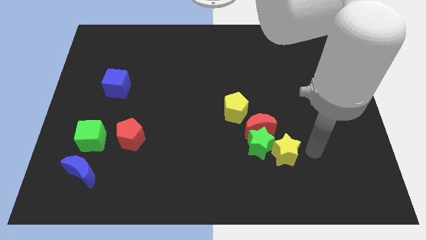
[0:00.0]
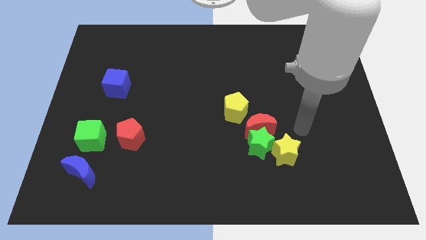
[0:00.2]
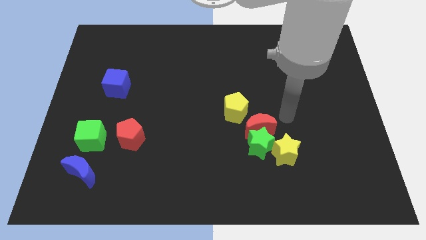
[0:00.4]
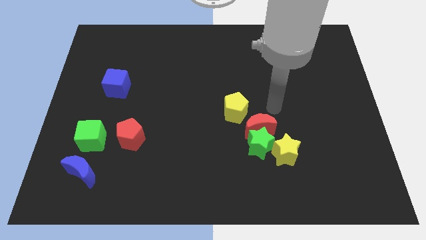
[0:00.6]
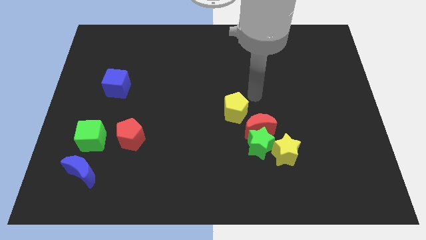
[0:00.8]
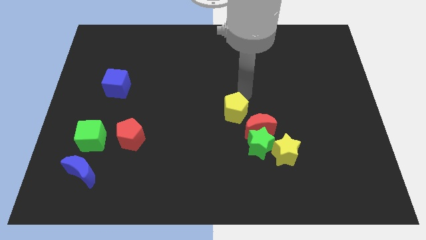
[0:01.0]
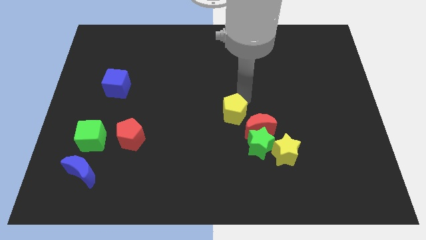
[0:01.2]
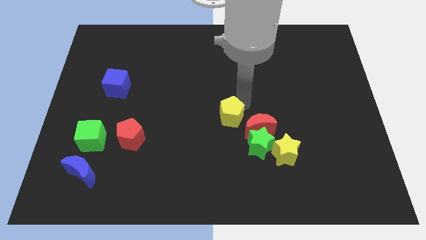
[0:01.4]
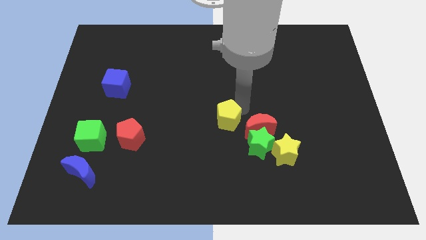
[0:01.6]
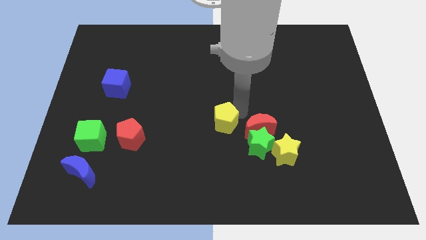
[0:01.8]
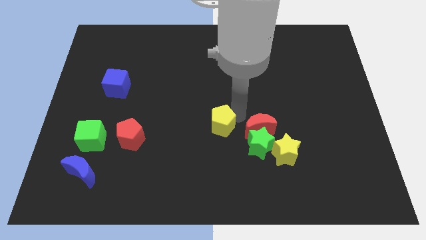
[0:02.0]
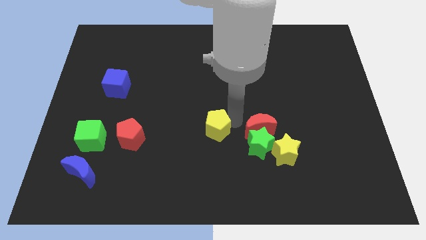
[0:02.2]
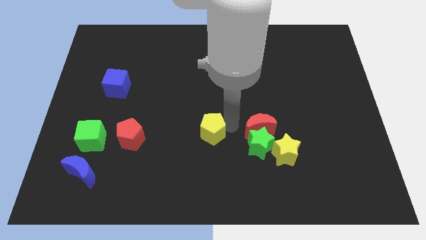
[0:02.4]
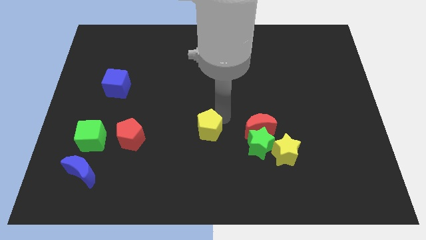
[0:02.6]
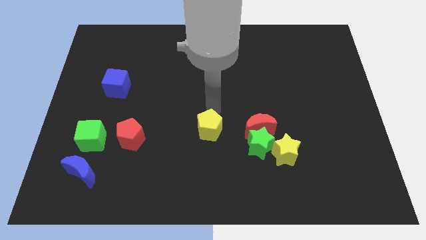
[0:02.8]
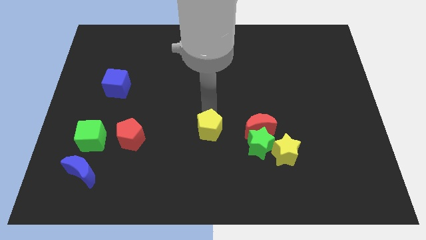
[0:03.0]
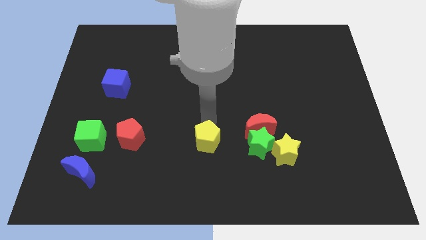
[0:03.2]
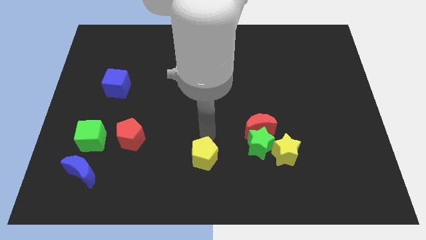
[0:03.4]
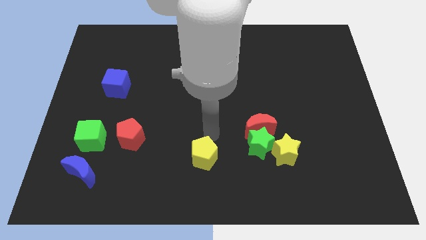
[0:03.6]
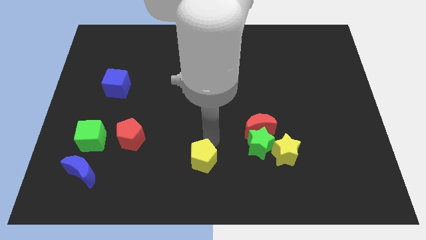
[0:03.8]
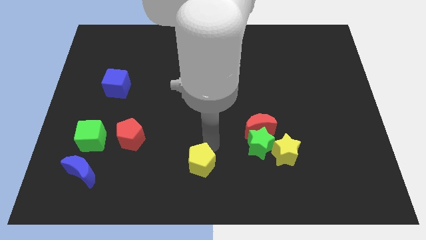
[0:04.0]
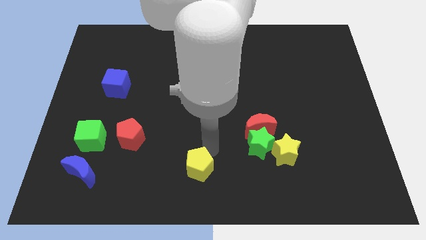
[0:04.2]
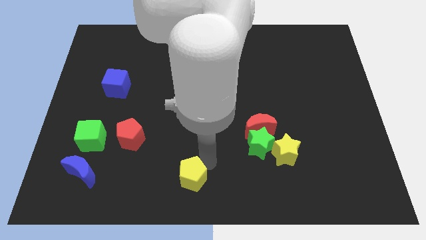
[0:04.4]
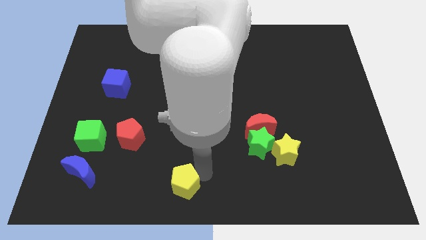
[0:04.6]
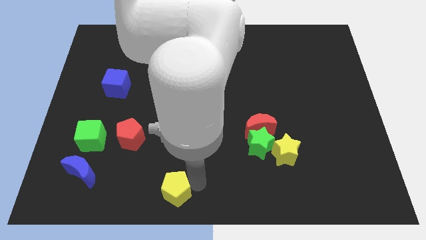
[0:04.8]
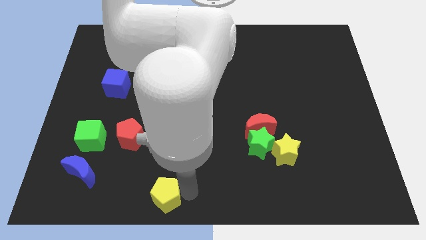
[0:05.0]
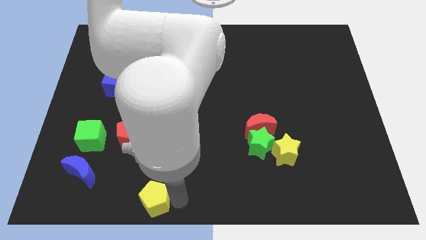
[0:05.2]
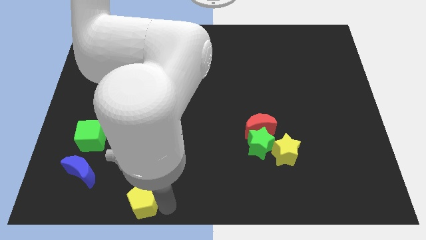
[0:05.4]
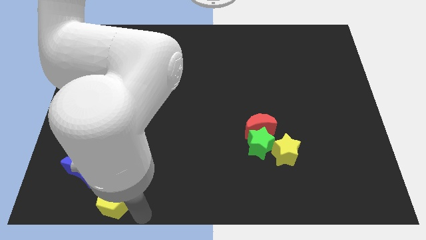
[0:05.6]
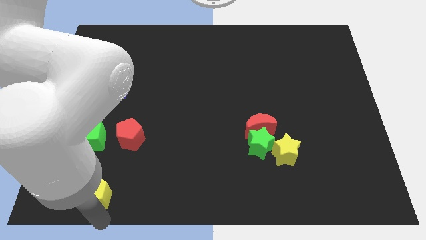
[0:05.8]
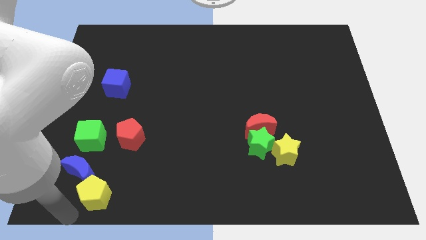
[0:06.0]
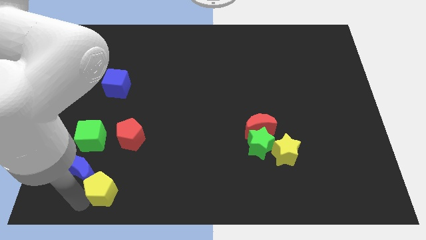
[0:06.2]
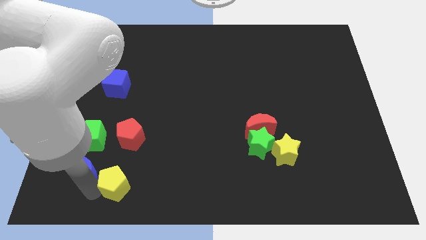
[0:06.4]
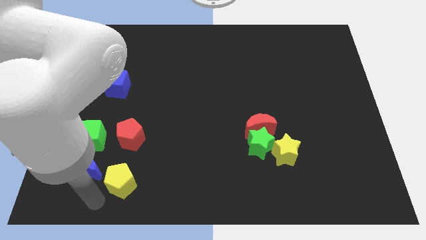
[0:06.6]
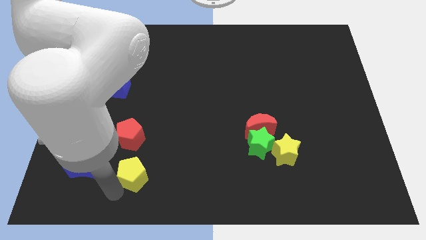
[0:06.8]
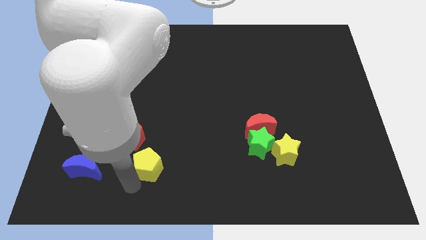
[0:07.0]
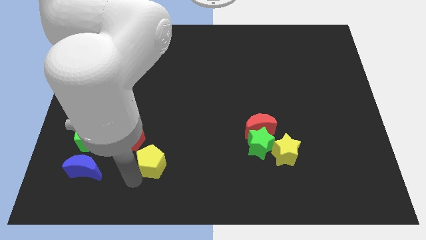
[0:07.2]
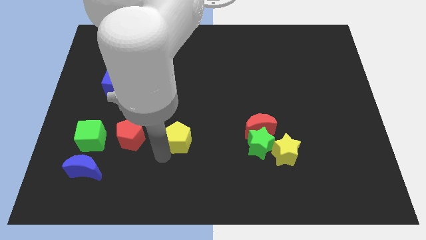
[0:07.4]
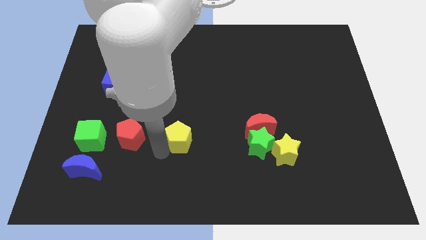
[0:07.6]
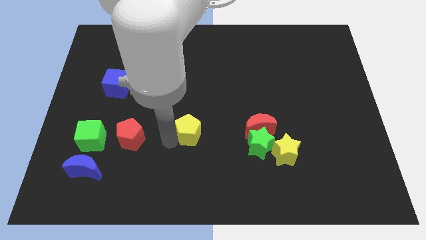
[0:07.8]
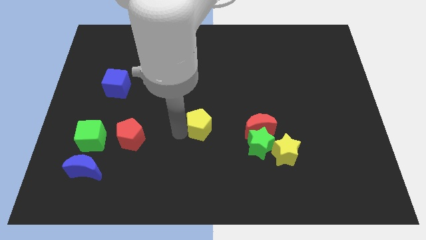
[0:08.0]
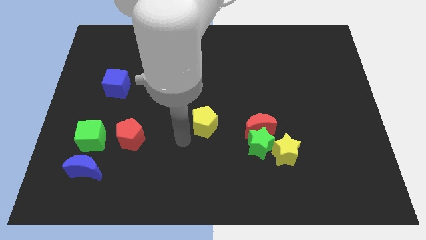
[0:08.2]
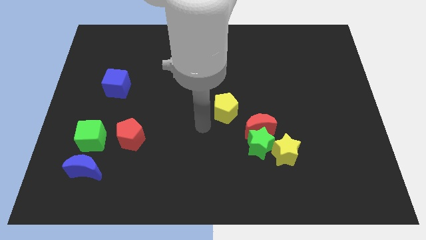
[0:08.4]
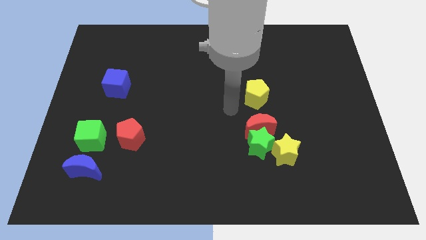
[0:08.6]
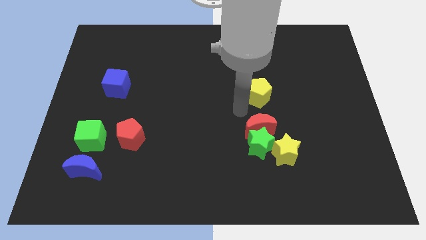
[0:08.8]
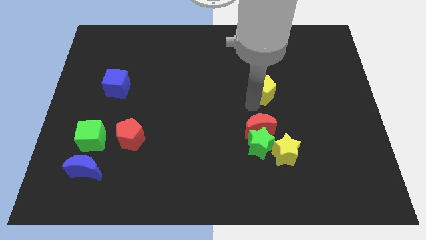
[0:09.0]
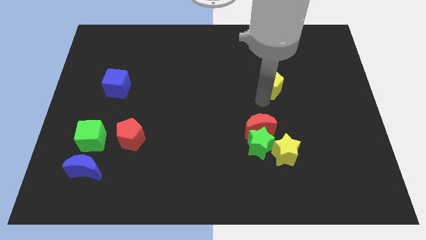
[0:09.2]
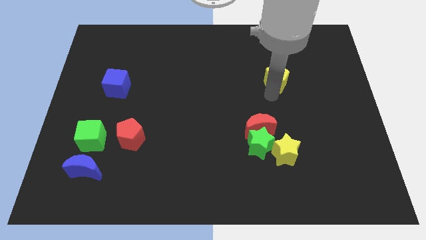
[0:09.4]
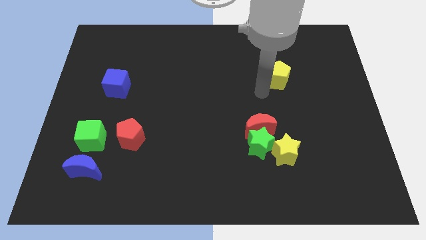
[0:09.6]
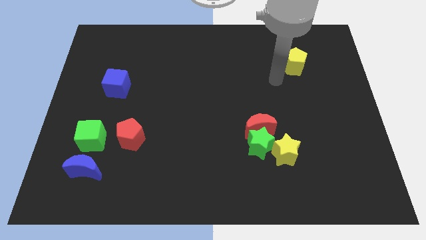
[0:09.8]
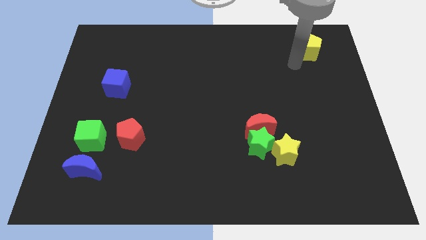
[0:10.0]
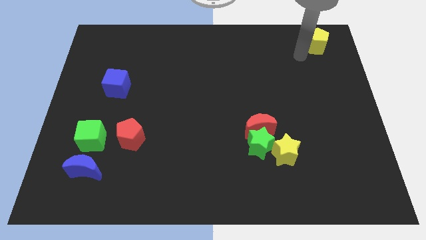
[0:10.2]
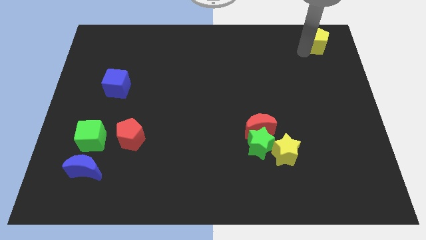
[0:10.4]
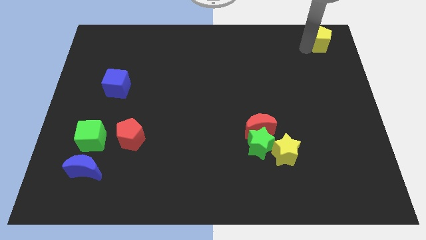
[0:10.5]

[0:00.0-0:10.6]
put the yellow pentagon to the top right of the board

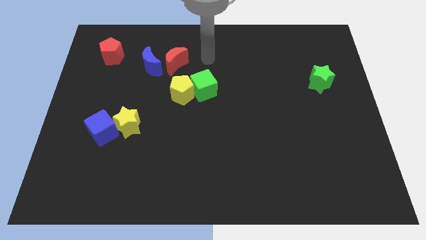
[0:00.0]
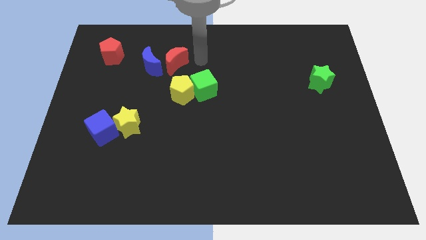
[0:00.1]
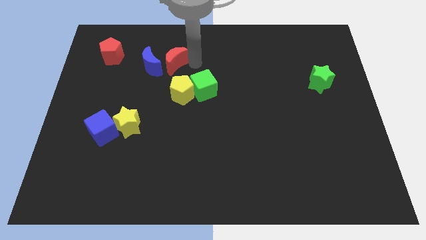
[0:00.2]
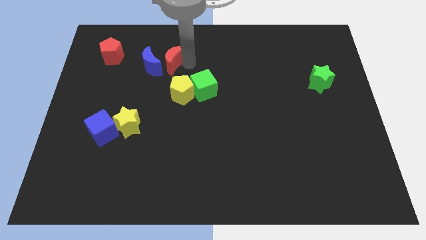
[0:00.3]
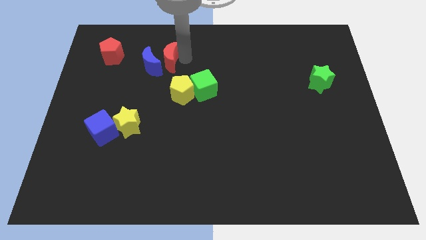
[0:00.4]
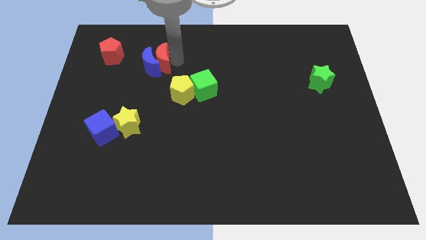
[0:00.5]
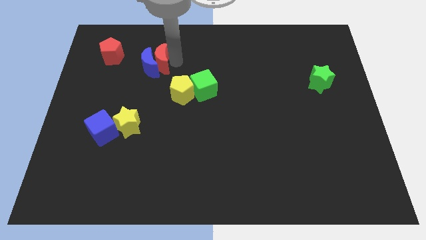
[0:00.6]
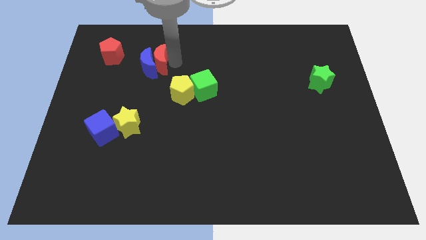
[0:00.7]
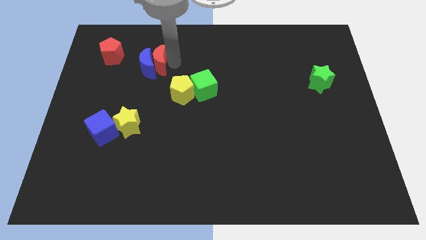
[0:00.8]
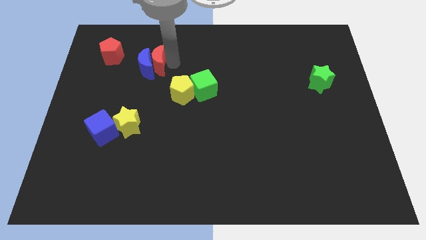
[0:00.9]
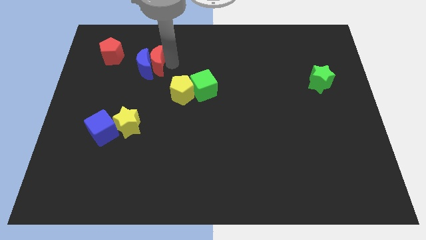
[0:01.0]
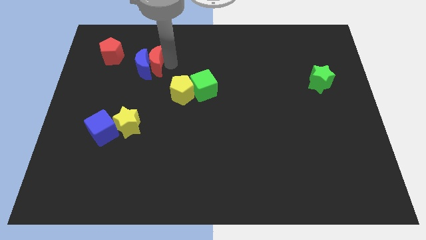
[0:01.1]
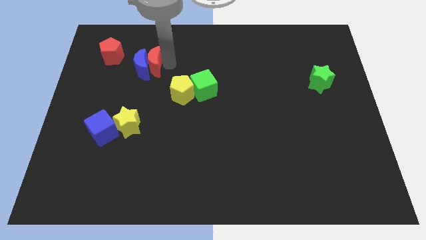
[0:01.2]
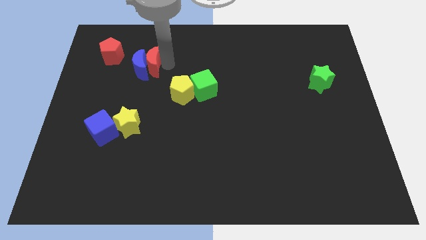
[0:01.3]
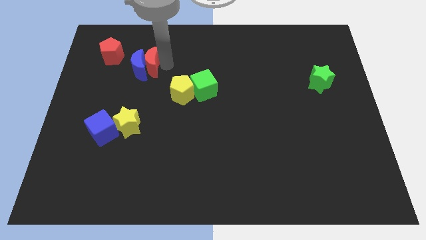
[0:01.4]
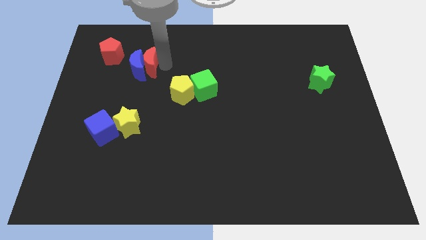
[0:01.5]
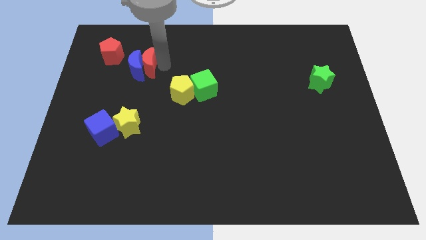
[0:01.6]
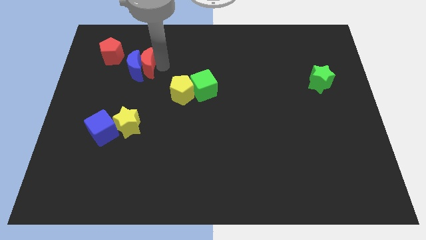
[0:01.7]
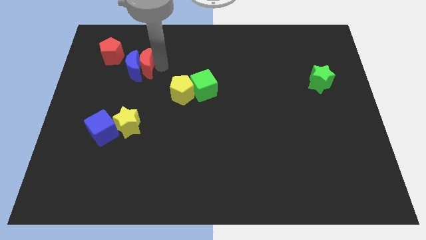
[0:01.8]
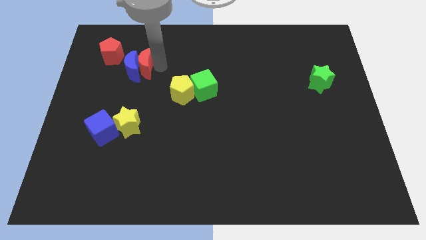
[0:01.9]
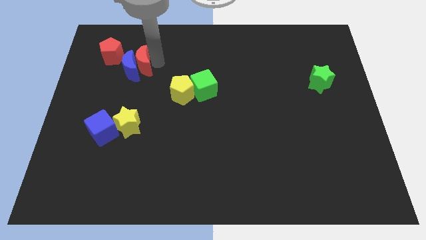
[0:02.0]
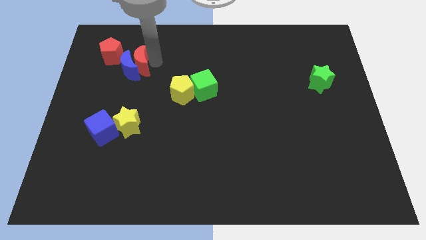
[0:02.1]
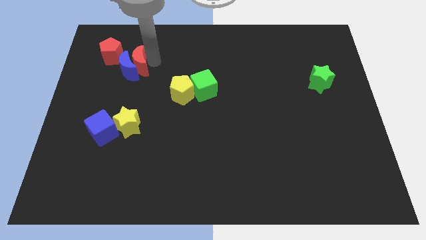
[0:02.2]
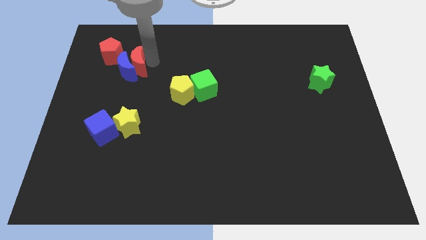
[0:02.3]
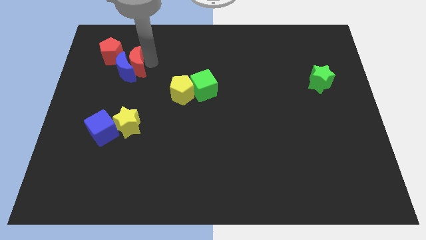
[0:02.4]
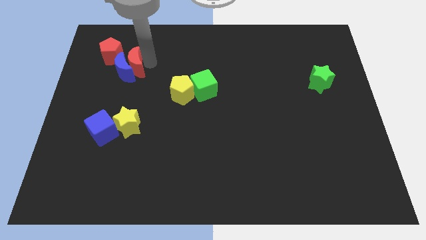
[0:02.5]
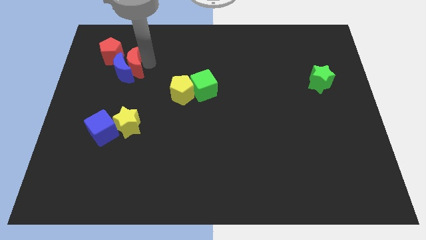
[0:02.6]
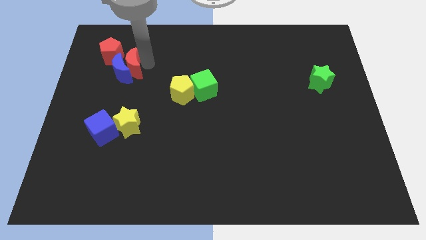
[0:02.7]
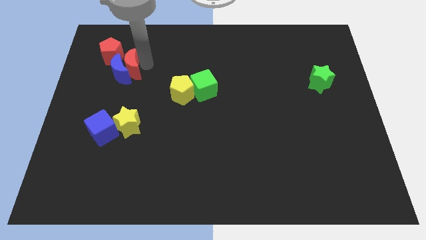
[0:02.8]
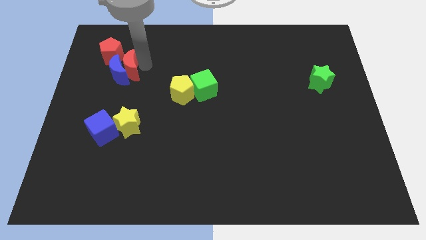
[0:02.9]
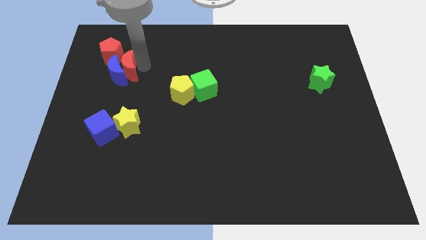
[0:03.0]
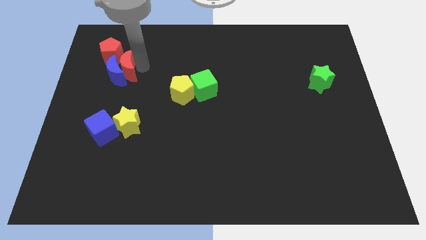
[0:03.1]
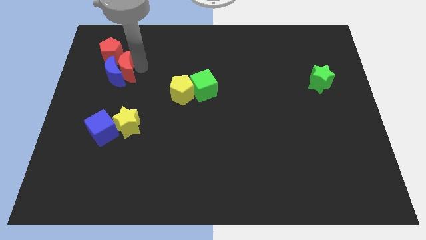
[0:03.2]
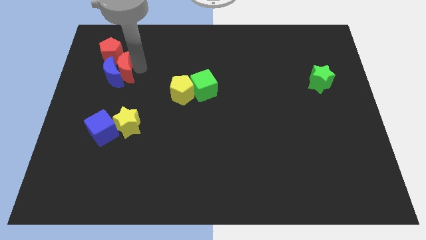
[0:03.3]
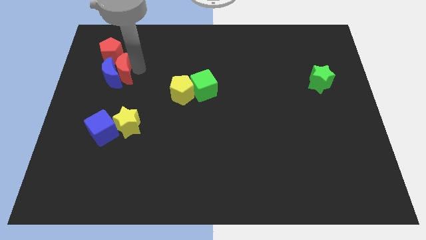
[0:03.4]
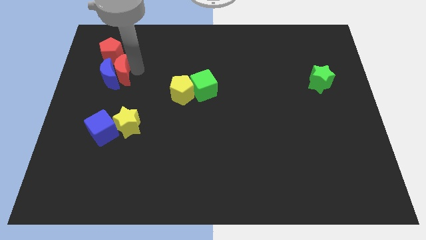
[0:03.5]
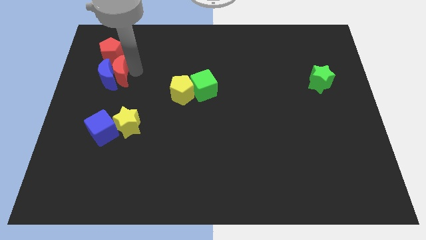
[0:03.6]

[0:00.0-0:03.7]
slide the blue moon to the left side
